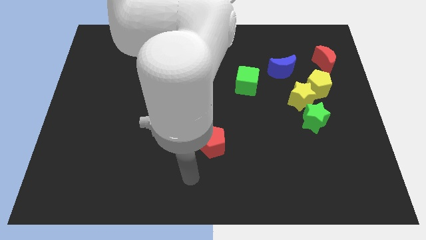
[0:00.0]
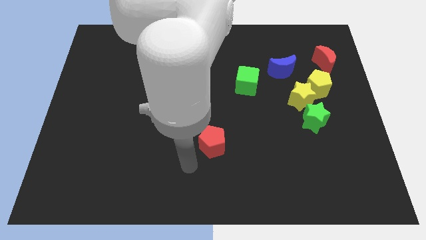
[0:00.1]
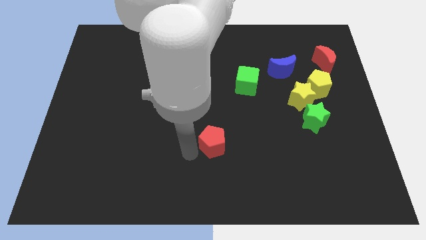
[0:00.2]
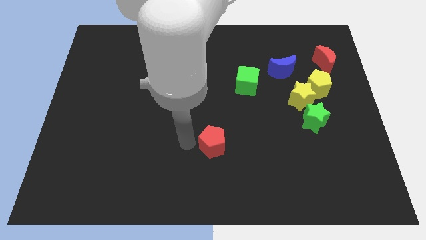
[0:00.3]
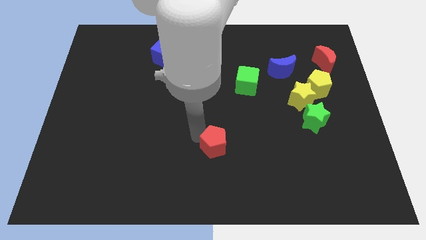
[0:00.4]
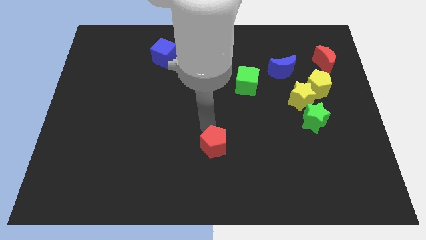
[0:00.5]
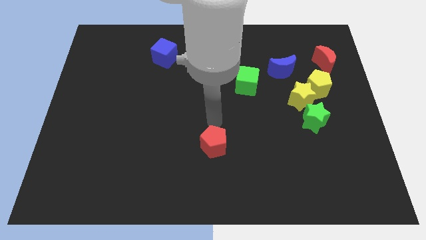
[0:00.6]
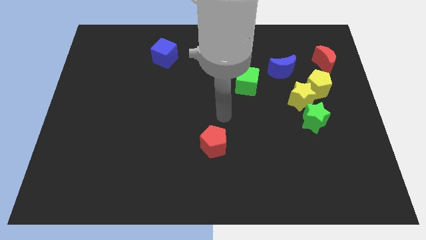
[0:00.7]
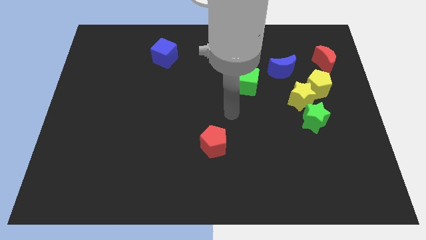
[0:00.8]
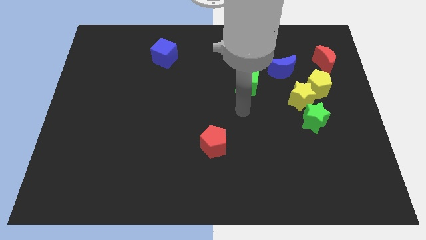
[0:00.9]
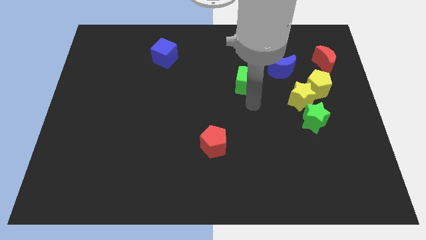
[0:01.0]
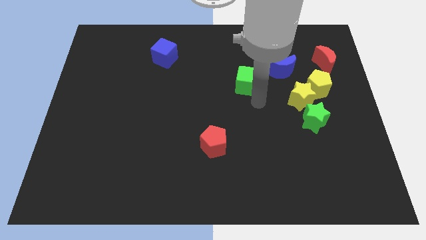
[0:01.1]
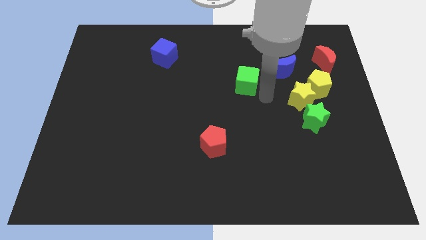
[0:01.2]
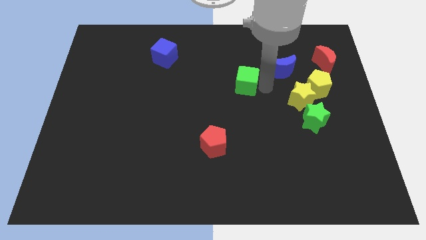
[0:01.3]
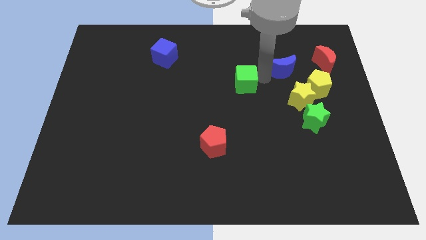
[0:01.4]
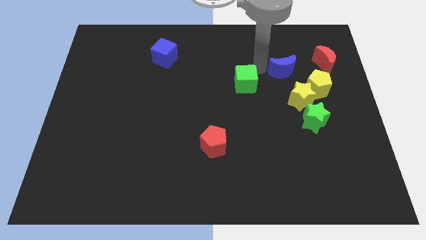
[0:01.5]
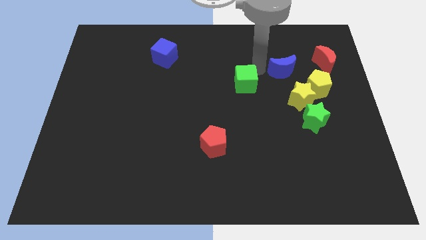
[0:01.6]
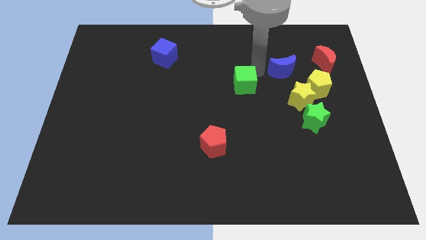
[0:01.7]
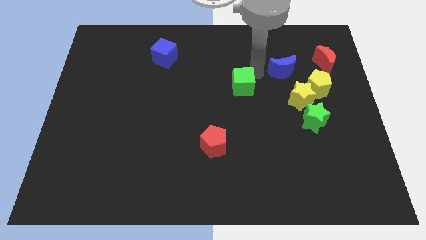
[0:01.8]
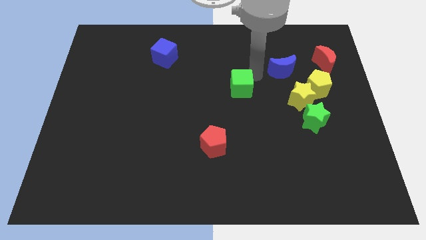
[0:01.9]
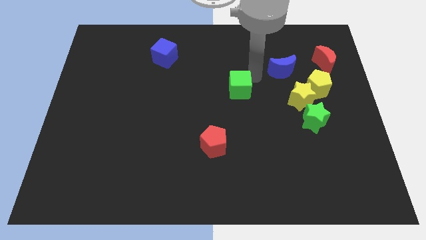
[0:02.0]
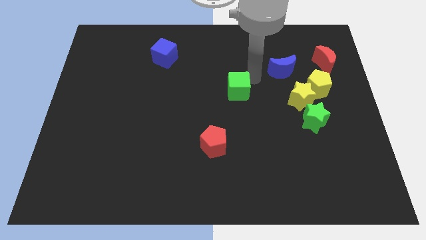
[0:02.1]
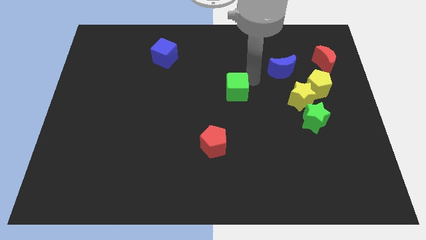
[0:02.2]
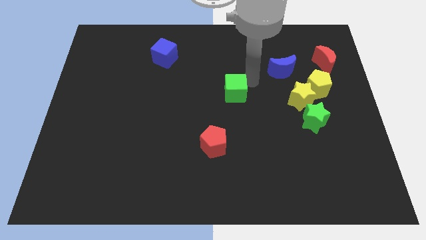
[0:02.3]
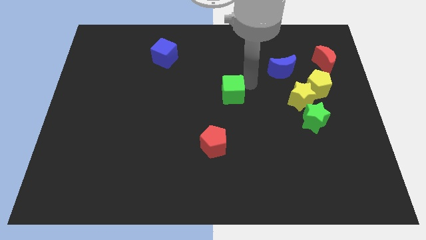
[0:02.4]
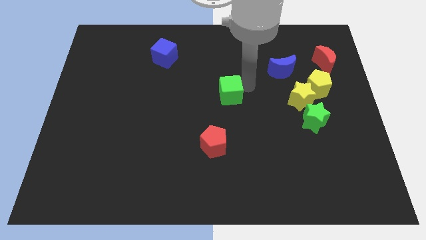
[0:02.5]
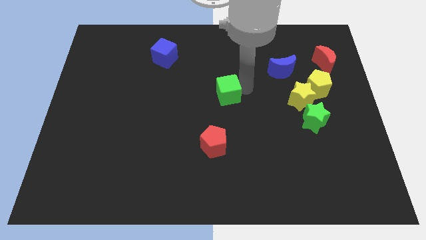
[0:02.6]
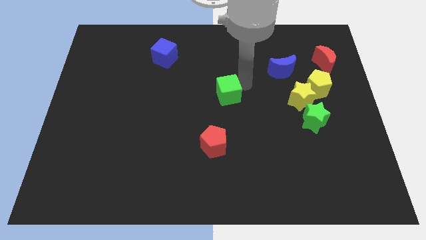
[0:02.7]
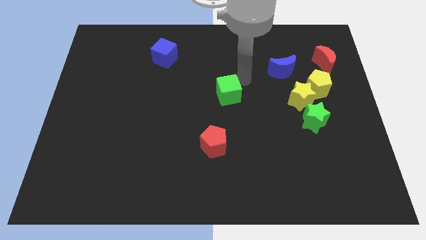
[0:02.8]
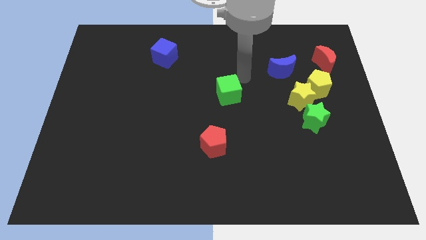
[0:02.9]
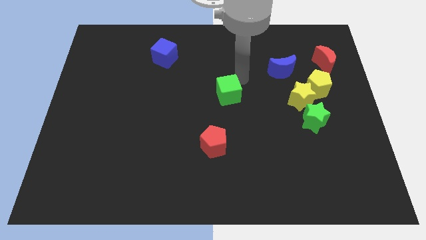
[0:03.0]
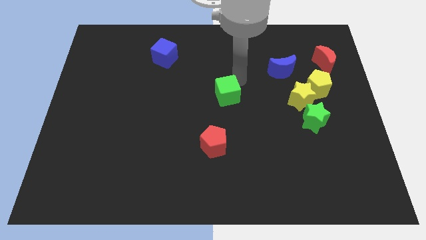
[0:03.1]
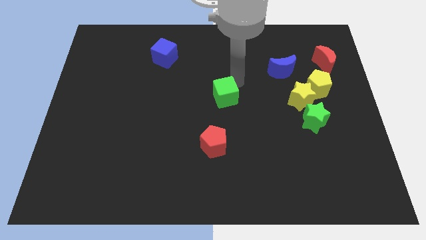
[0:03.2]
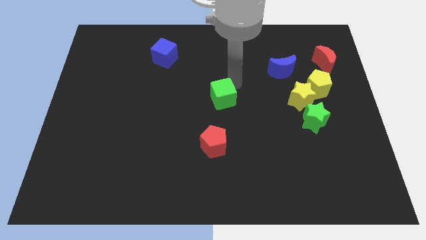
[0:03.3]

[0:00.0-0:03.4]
slightly slide the green cube down and left diagonally

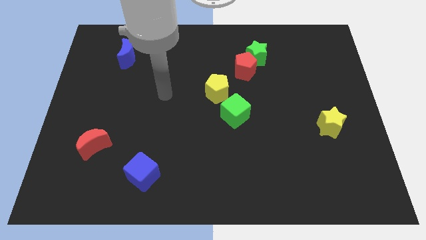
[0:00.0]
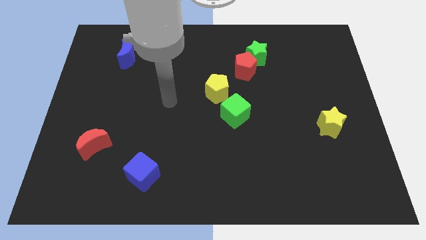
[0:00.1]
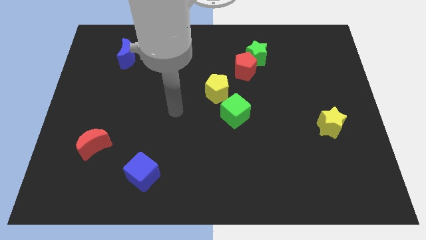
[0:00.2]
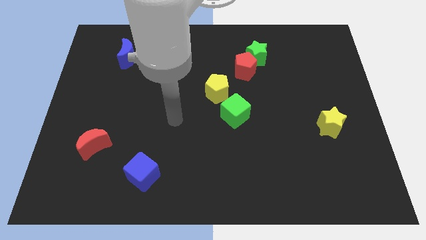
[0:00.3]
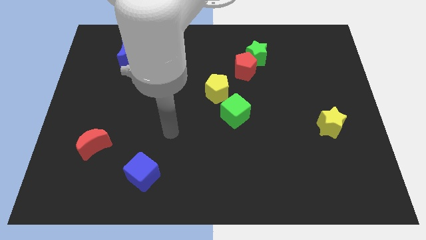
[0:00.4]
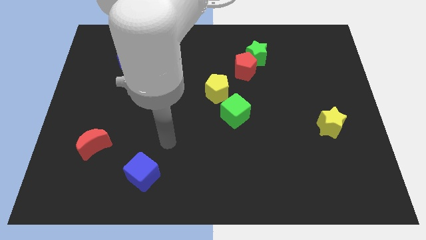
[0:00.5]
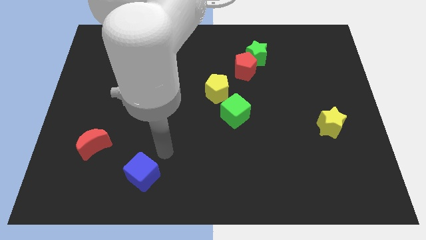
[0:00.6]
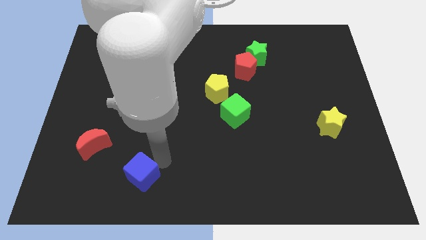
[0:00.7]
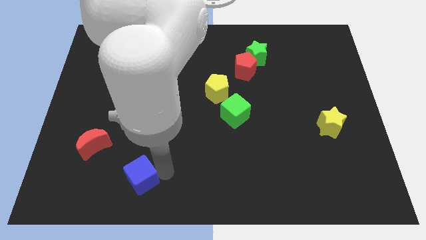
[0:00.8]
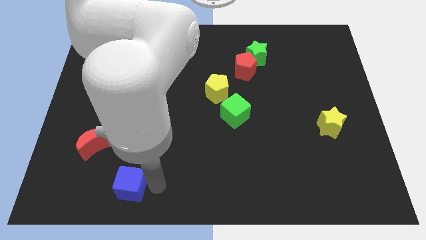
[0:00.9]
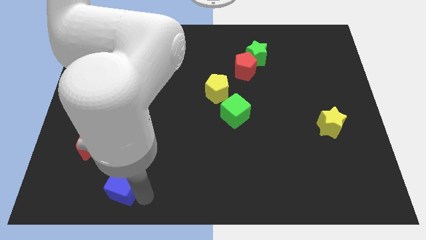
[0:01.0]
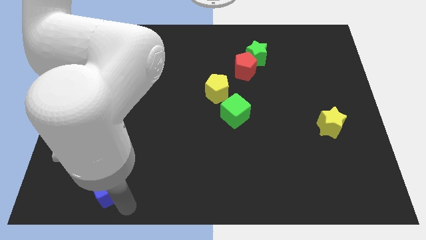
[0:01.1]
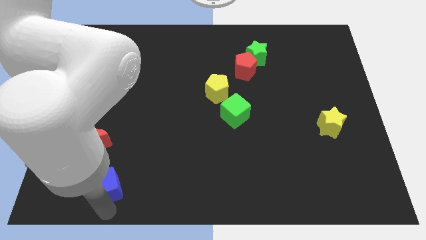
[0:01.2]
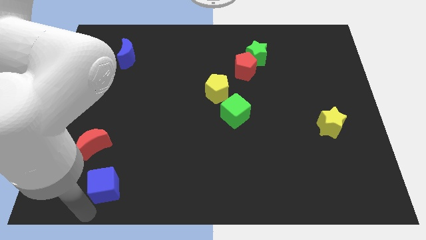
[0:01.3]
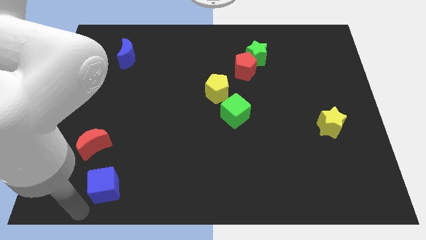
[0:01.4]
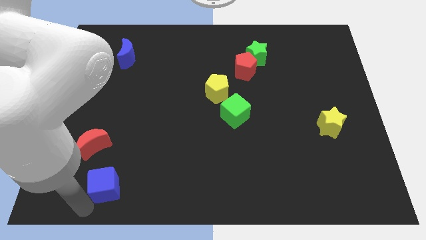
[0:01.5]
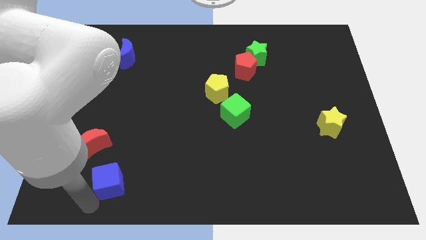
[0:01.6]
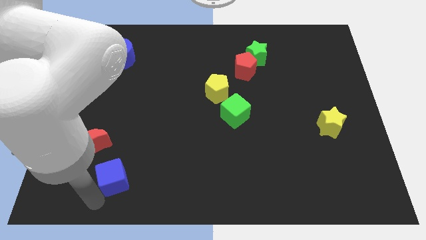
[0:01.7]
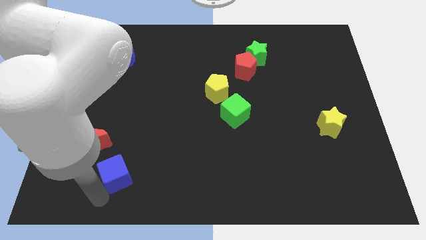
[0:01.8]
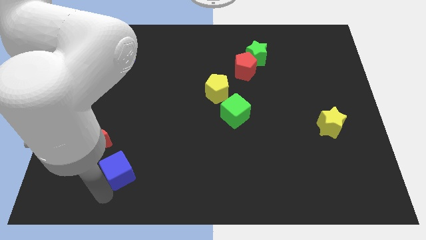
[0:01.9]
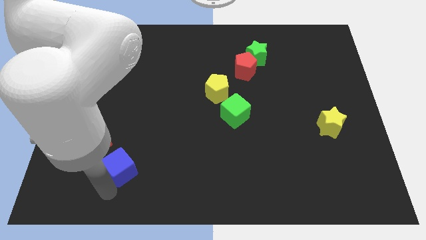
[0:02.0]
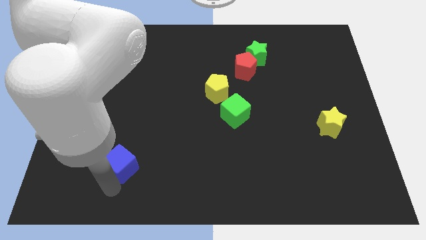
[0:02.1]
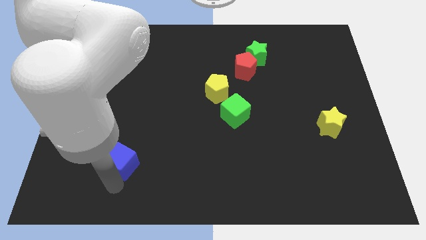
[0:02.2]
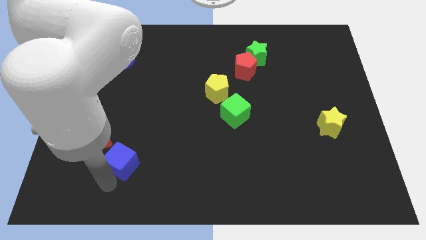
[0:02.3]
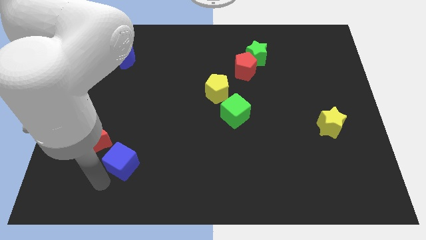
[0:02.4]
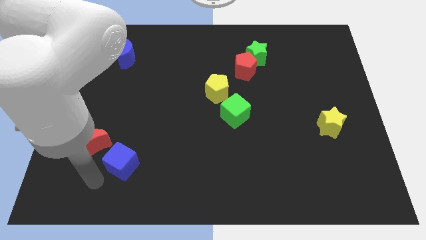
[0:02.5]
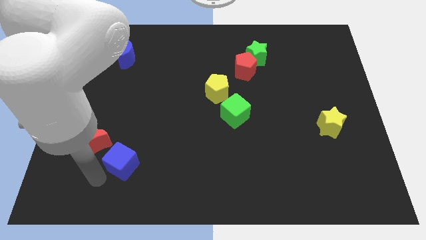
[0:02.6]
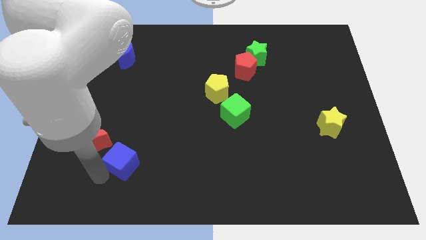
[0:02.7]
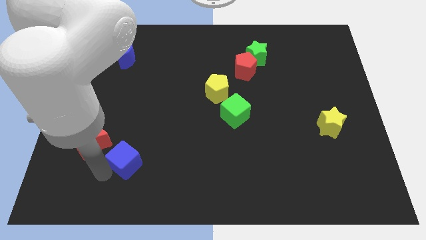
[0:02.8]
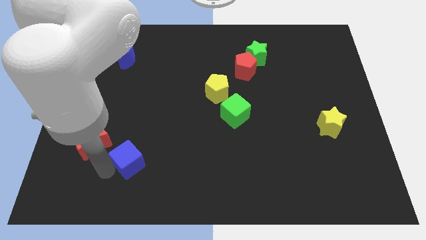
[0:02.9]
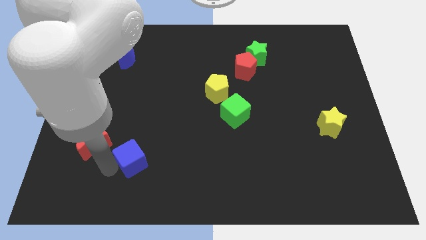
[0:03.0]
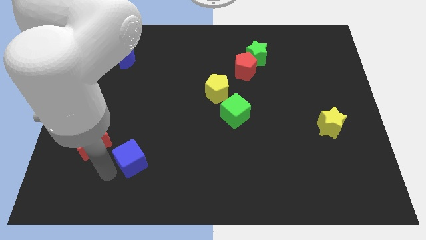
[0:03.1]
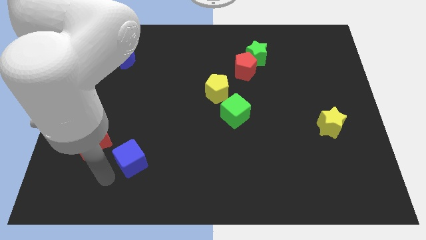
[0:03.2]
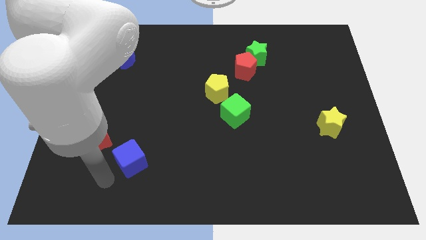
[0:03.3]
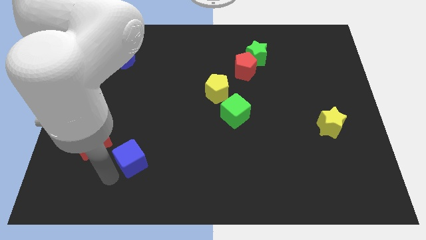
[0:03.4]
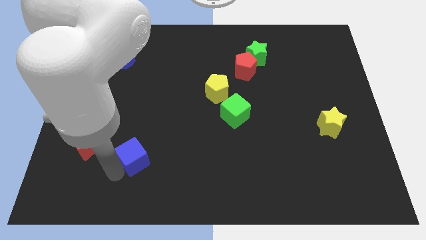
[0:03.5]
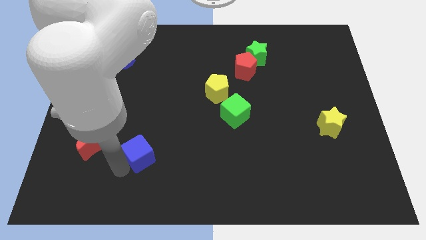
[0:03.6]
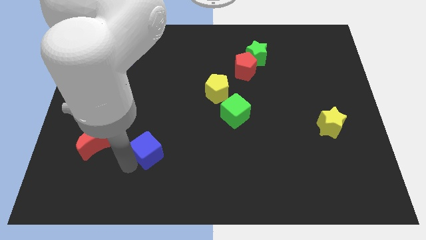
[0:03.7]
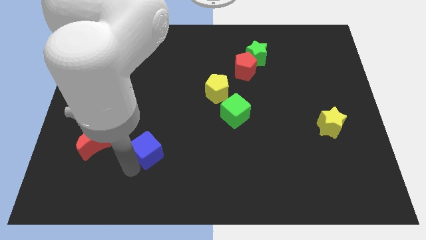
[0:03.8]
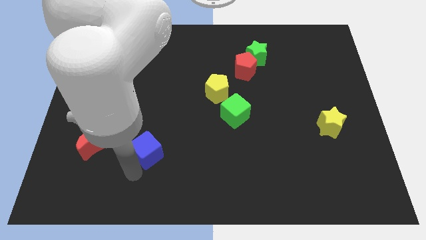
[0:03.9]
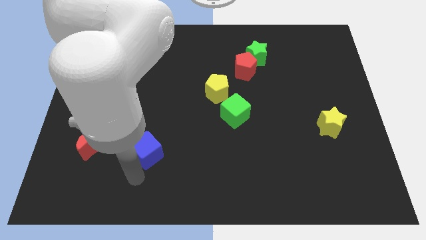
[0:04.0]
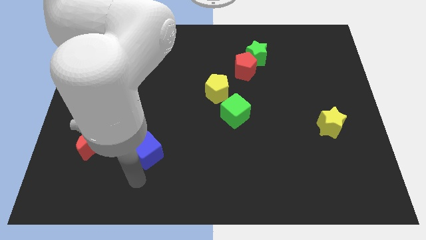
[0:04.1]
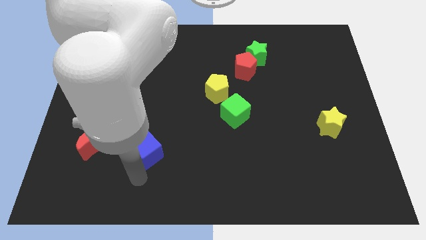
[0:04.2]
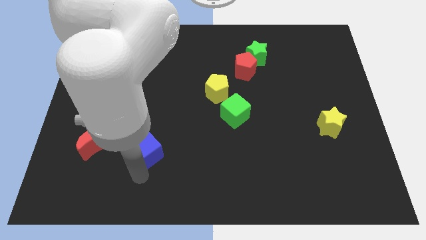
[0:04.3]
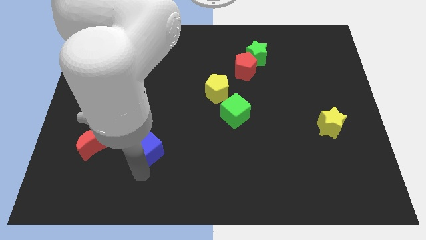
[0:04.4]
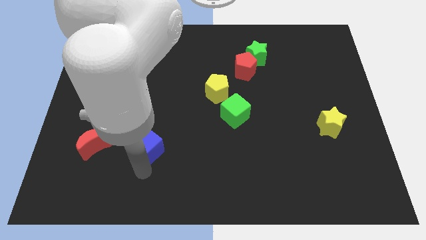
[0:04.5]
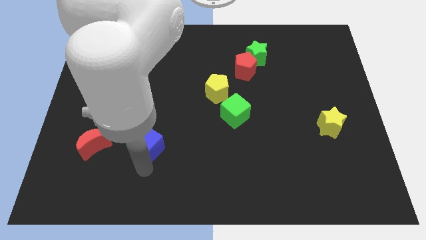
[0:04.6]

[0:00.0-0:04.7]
push the blue cube upwards slightly

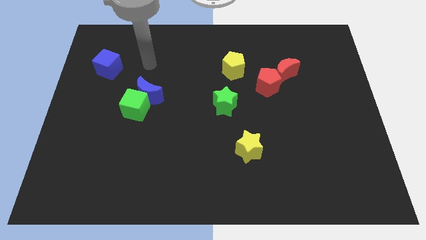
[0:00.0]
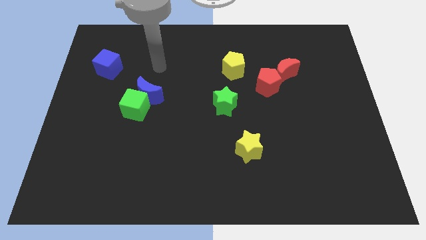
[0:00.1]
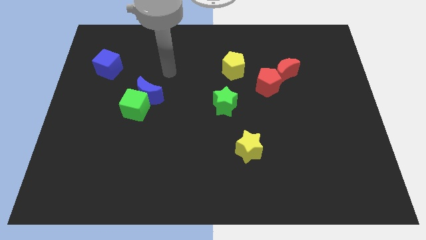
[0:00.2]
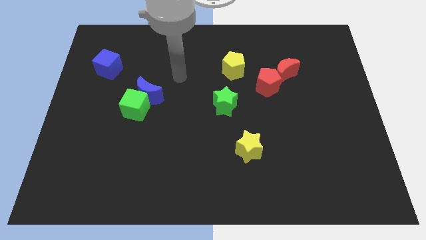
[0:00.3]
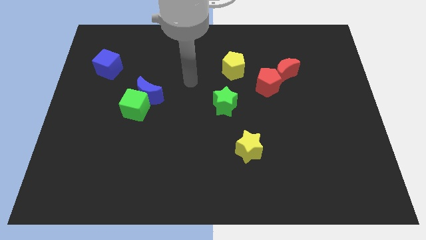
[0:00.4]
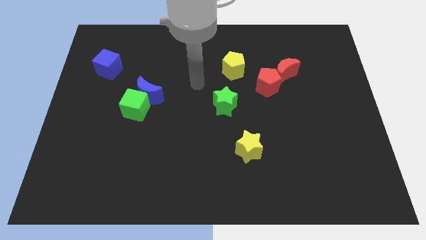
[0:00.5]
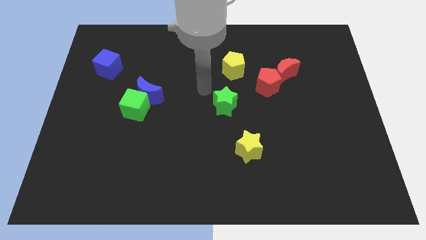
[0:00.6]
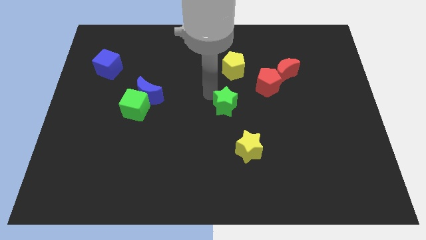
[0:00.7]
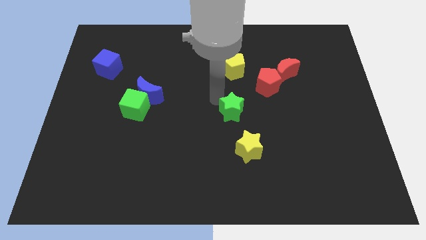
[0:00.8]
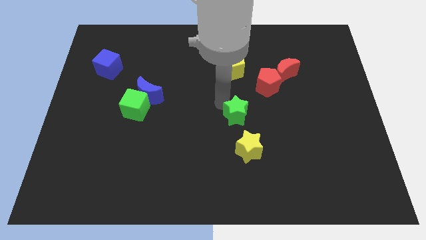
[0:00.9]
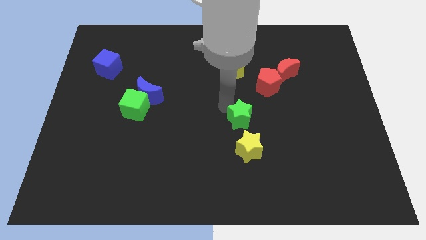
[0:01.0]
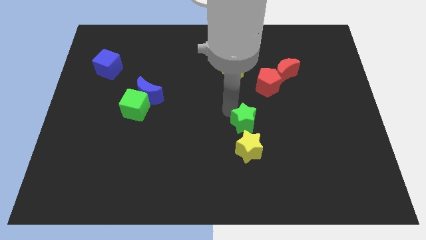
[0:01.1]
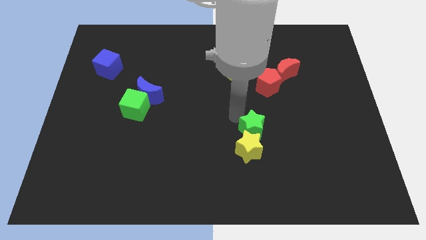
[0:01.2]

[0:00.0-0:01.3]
slide the green star down and to the right a bit
